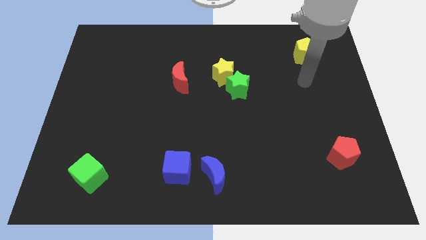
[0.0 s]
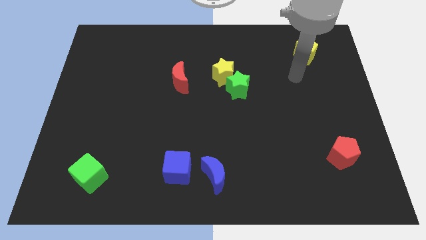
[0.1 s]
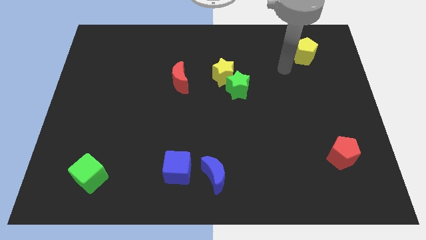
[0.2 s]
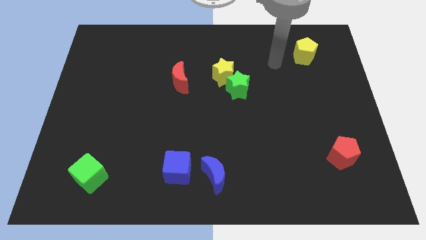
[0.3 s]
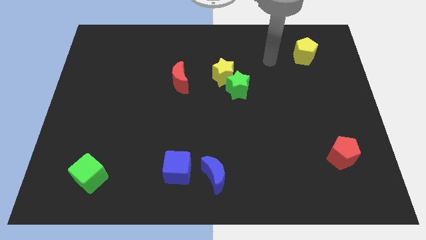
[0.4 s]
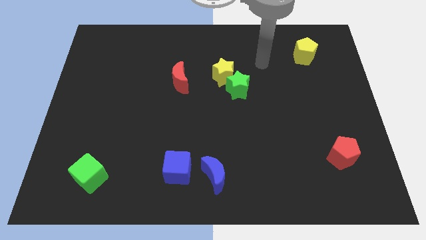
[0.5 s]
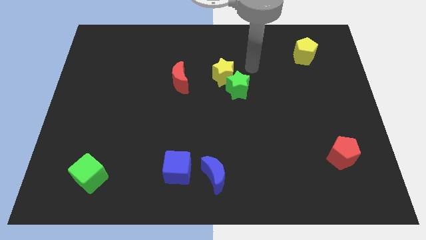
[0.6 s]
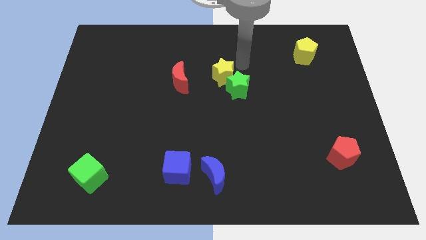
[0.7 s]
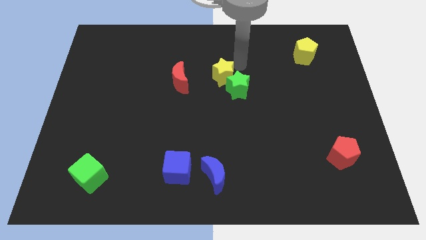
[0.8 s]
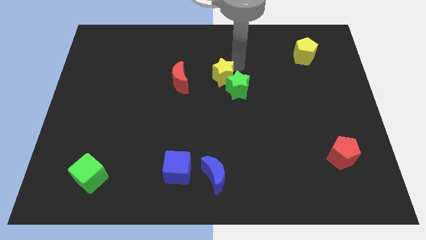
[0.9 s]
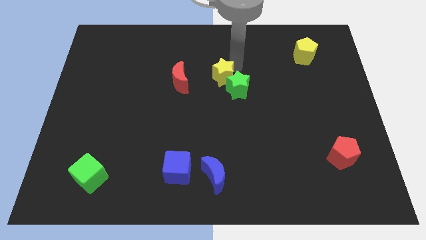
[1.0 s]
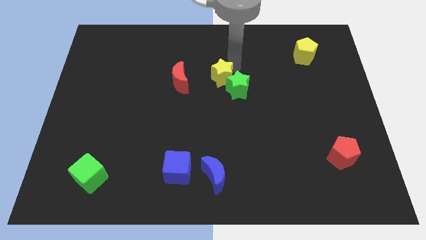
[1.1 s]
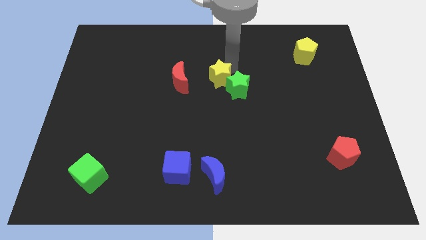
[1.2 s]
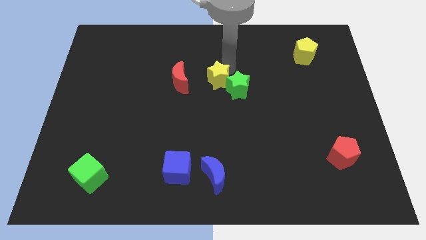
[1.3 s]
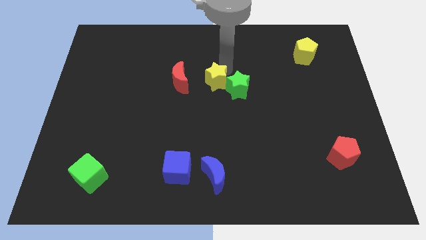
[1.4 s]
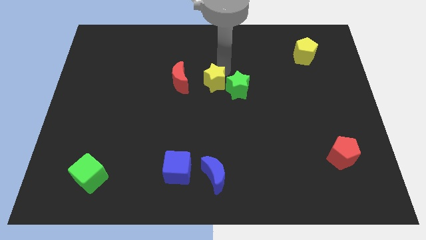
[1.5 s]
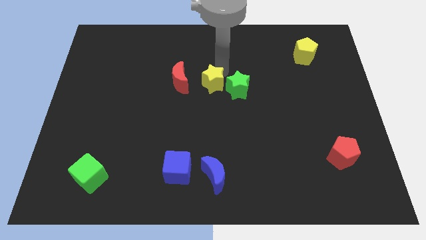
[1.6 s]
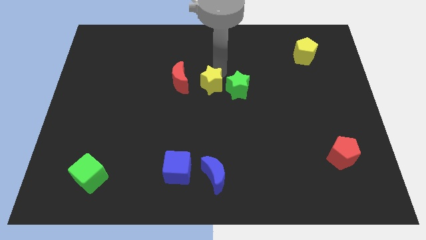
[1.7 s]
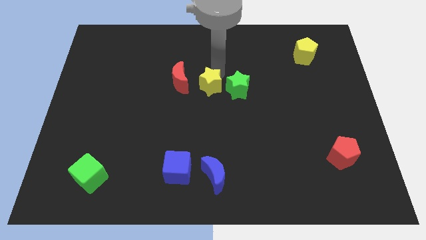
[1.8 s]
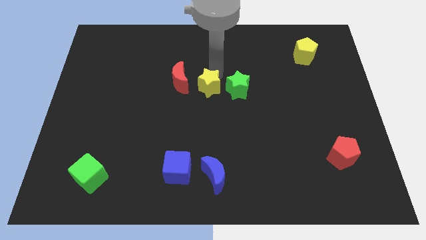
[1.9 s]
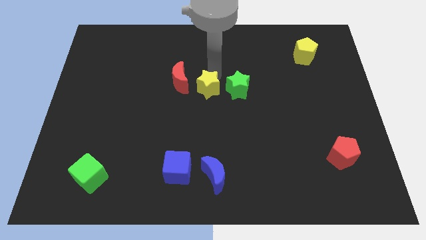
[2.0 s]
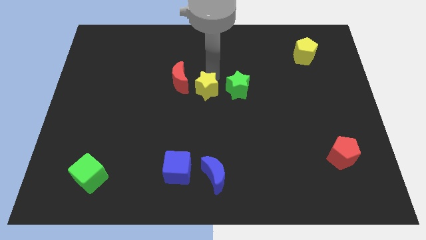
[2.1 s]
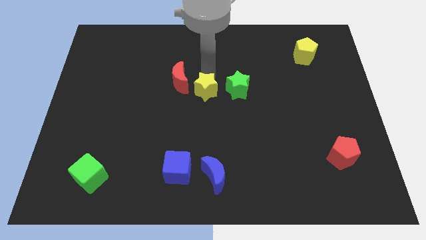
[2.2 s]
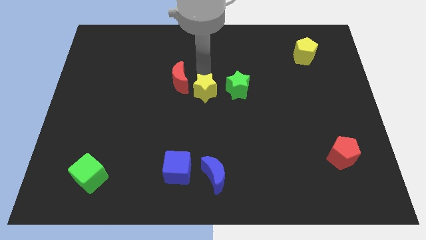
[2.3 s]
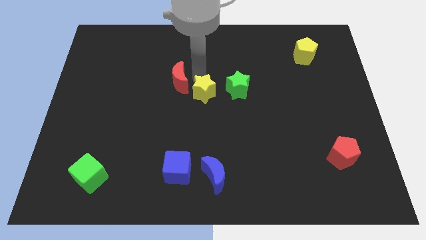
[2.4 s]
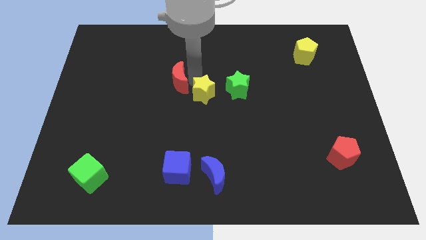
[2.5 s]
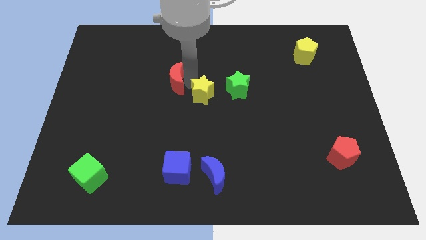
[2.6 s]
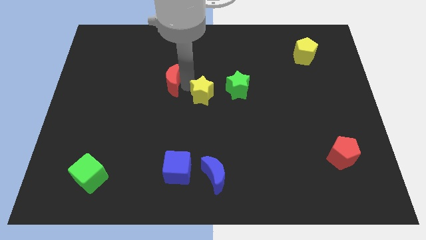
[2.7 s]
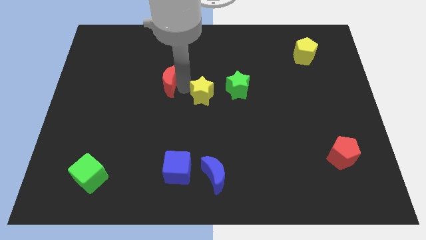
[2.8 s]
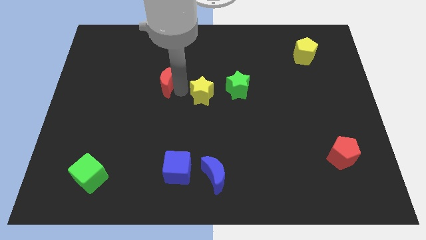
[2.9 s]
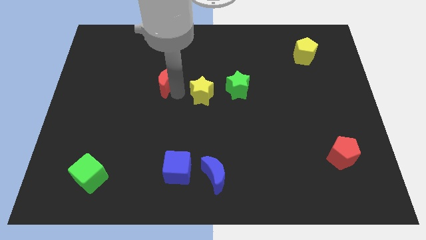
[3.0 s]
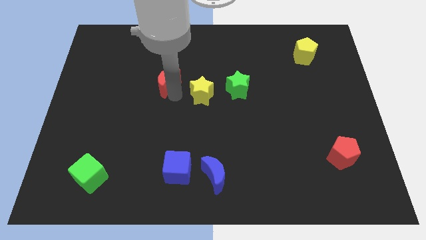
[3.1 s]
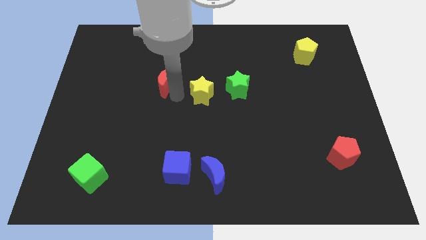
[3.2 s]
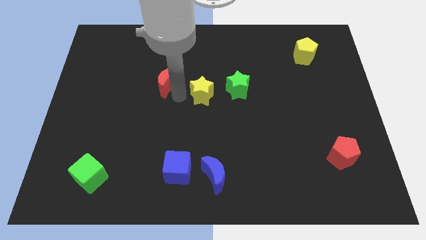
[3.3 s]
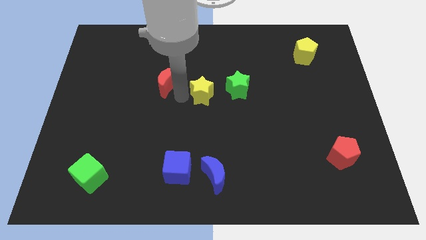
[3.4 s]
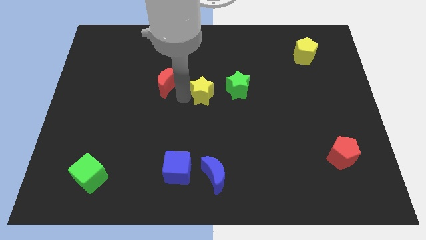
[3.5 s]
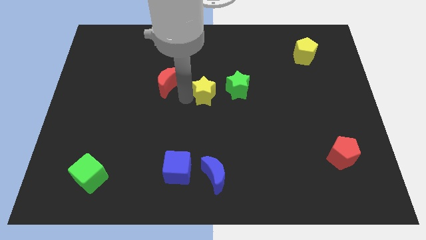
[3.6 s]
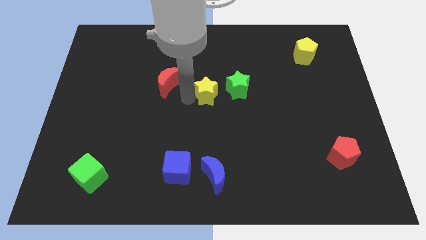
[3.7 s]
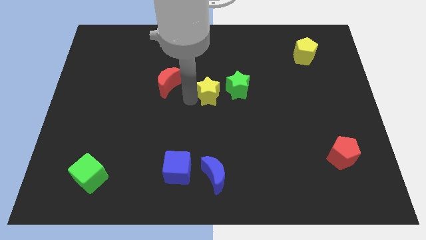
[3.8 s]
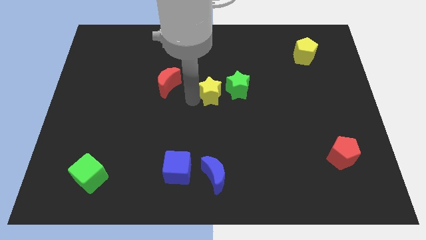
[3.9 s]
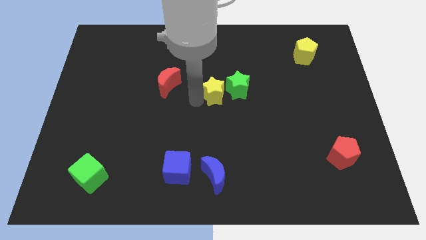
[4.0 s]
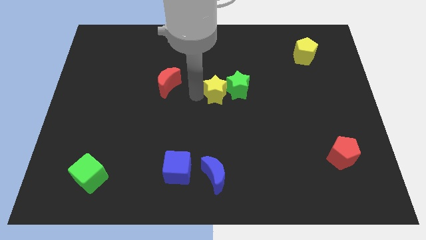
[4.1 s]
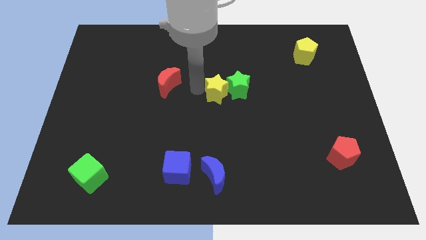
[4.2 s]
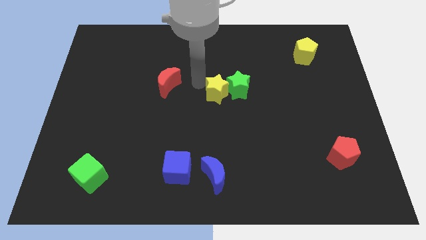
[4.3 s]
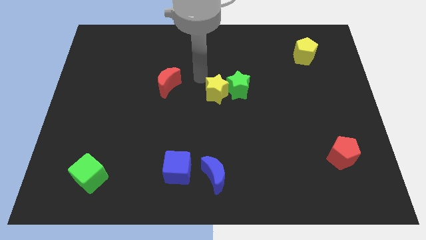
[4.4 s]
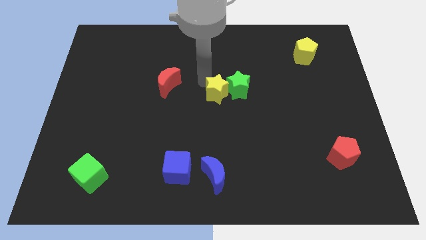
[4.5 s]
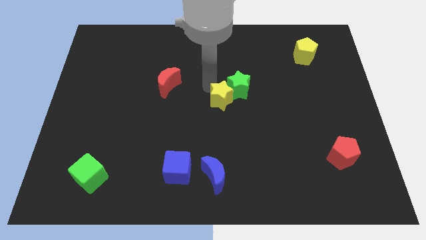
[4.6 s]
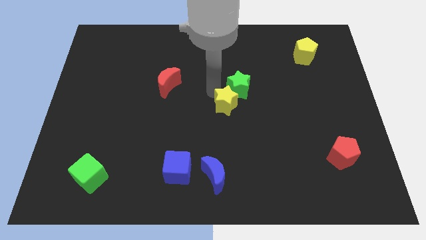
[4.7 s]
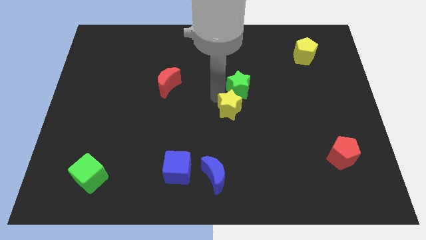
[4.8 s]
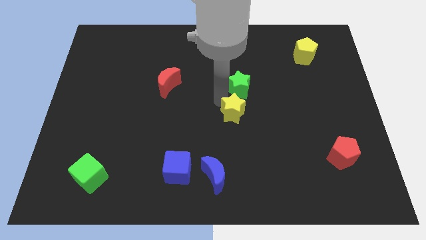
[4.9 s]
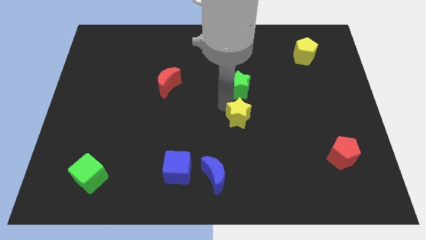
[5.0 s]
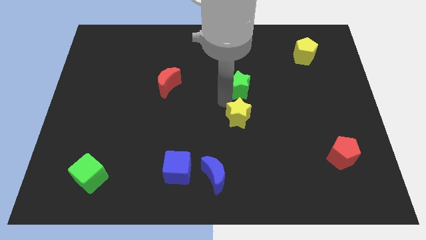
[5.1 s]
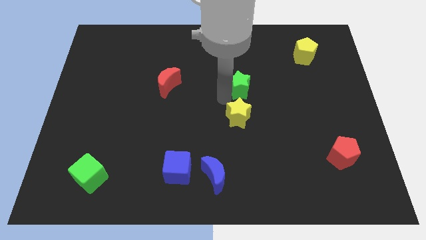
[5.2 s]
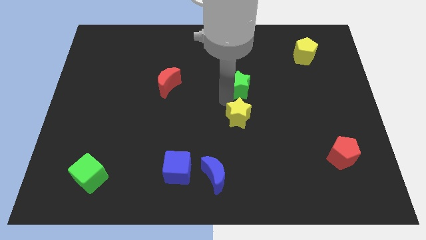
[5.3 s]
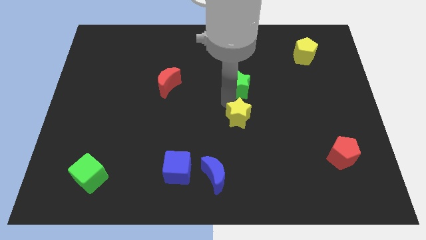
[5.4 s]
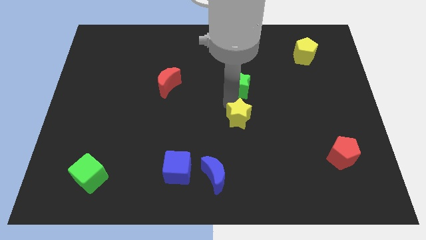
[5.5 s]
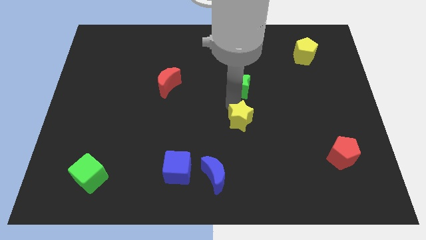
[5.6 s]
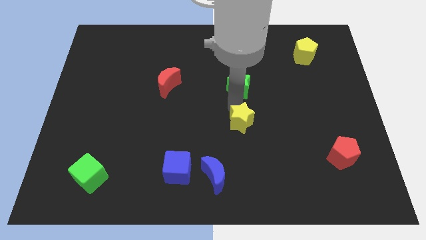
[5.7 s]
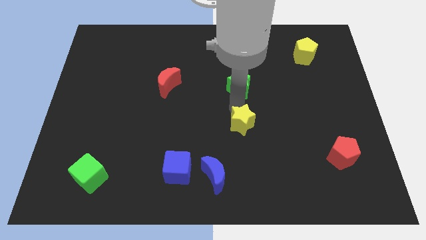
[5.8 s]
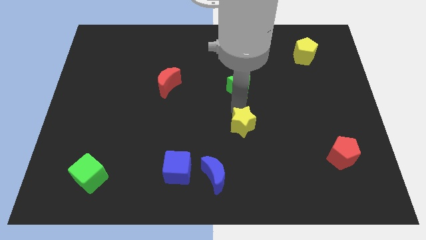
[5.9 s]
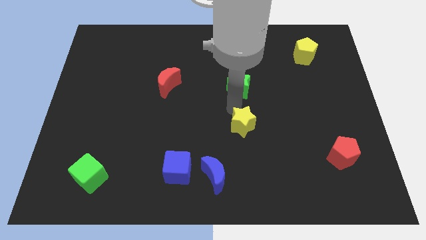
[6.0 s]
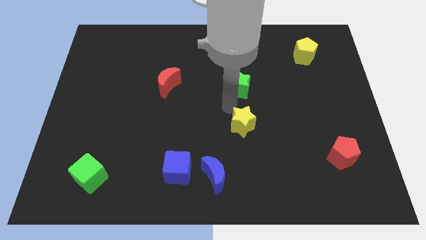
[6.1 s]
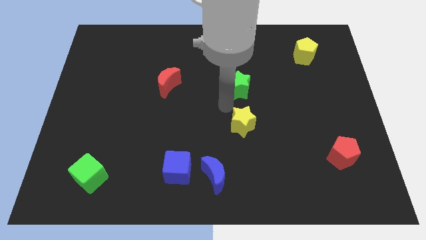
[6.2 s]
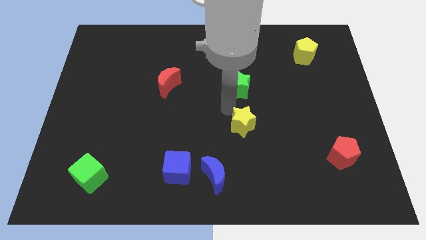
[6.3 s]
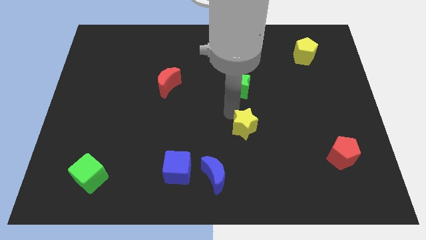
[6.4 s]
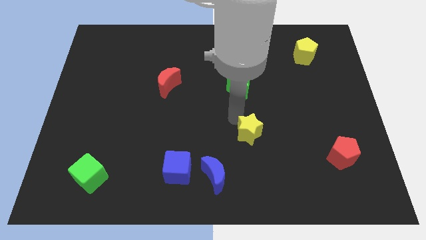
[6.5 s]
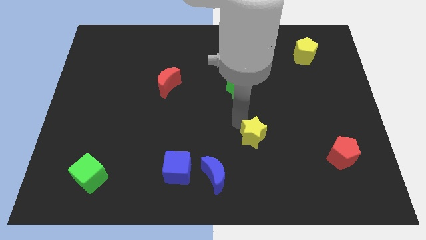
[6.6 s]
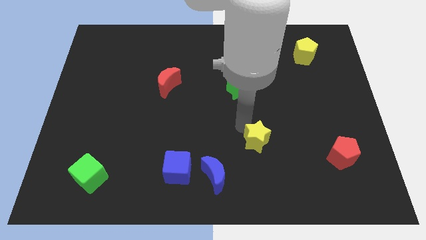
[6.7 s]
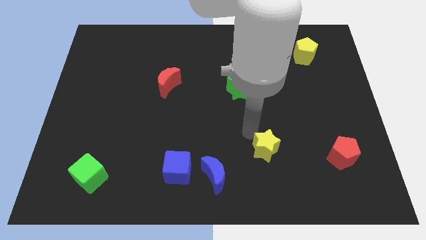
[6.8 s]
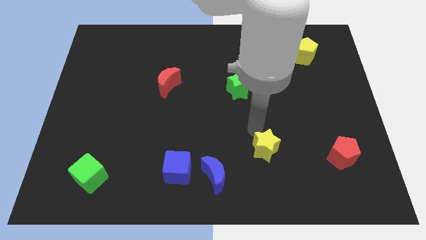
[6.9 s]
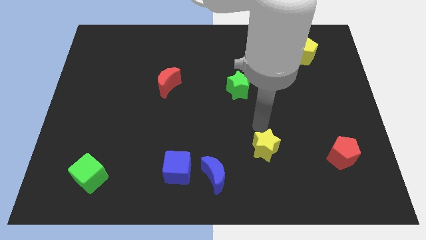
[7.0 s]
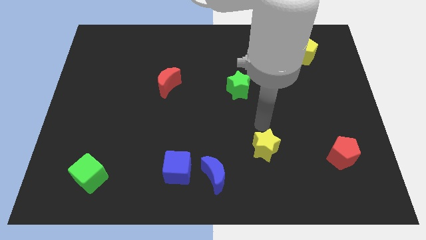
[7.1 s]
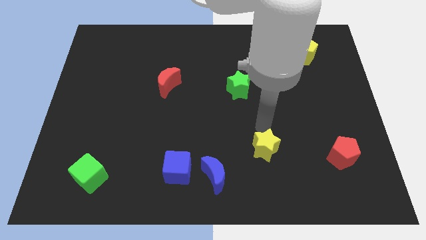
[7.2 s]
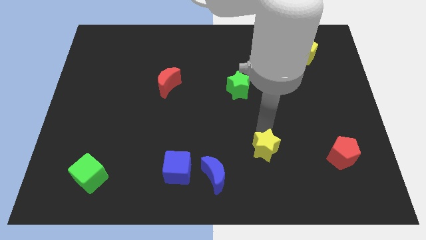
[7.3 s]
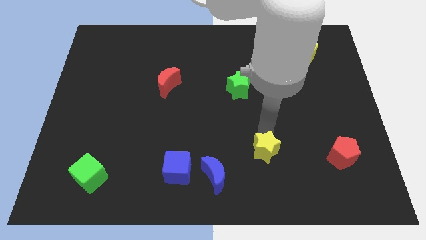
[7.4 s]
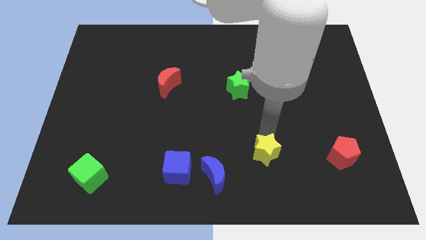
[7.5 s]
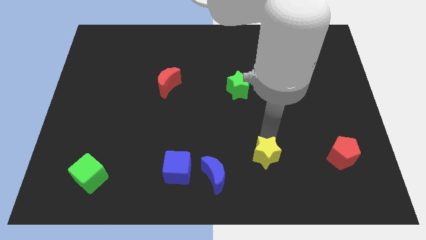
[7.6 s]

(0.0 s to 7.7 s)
push the yellow star just right of the blue moon

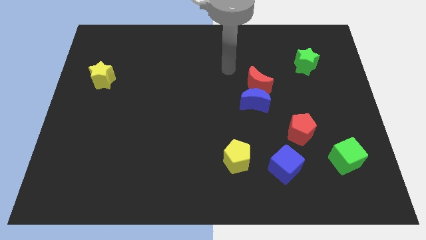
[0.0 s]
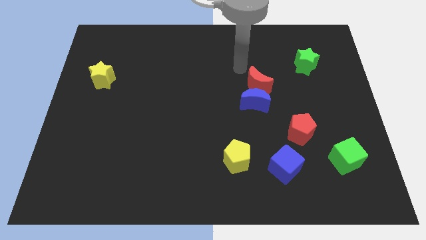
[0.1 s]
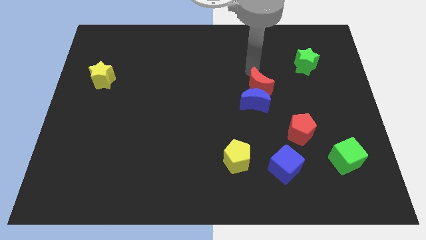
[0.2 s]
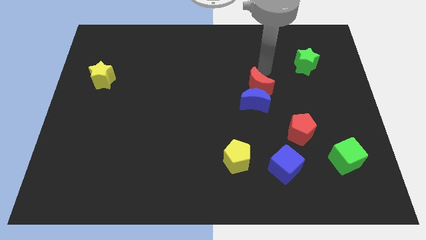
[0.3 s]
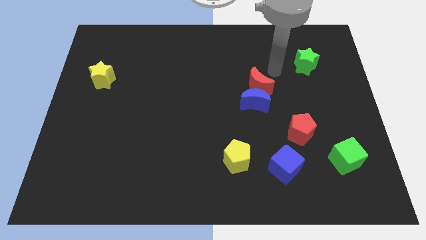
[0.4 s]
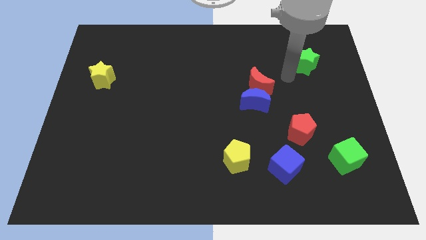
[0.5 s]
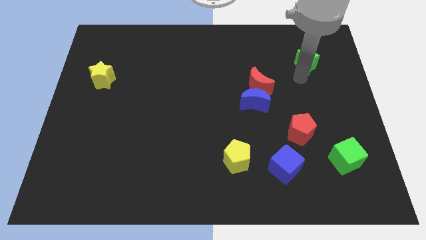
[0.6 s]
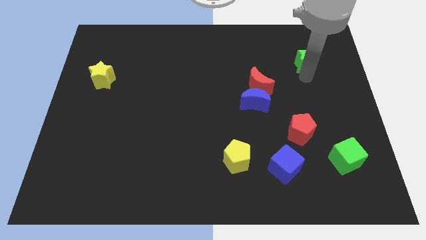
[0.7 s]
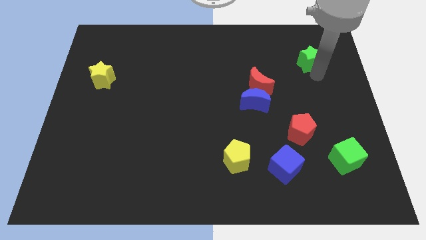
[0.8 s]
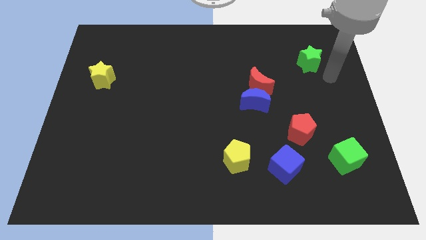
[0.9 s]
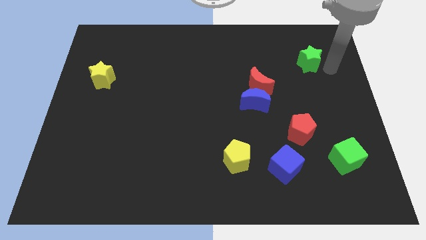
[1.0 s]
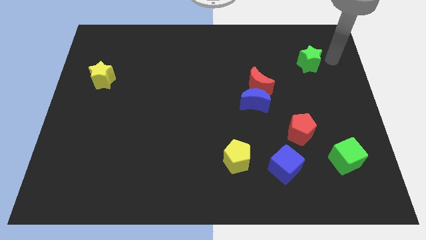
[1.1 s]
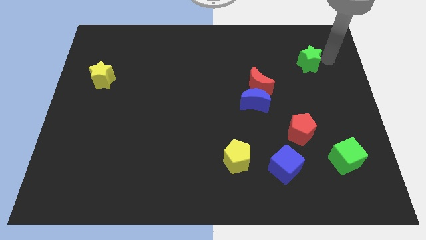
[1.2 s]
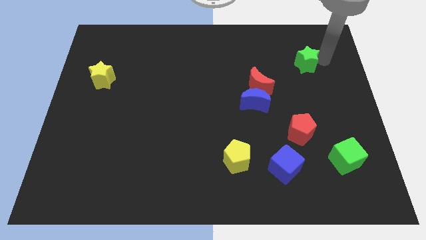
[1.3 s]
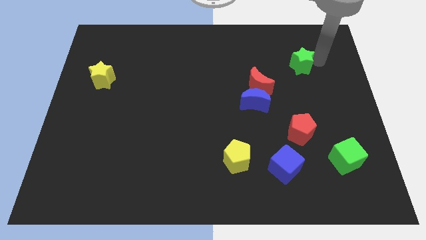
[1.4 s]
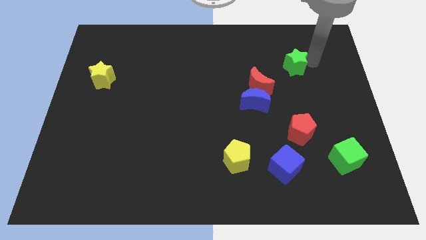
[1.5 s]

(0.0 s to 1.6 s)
push the green star diagonally up and to the right of the red moon
